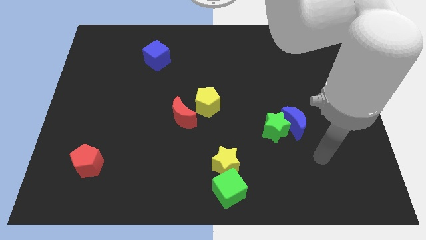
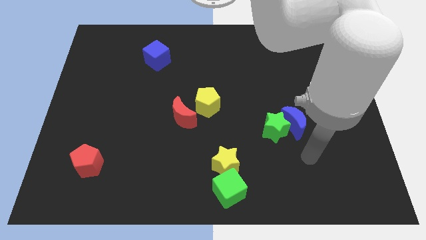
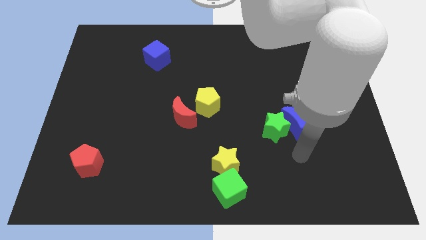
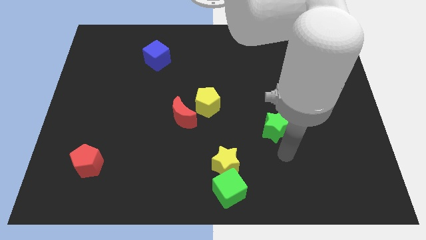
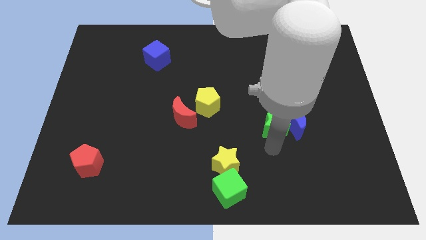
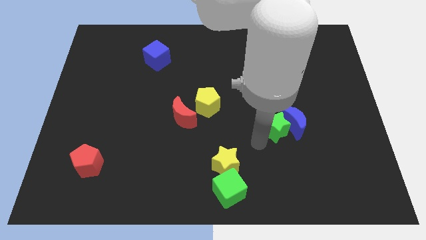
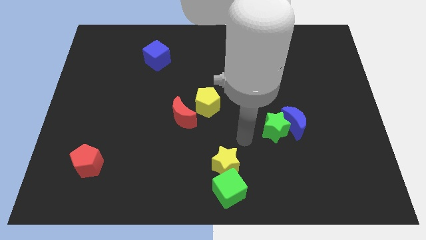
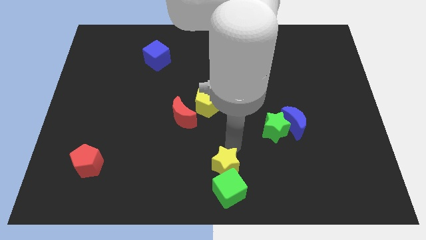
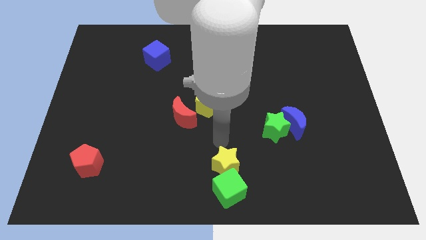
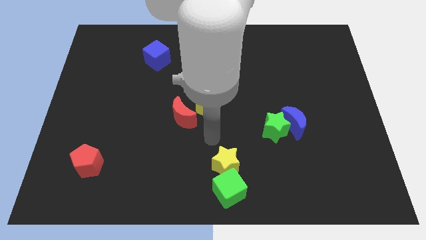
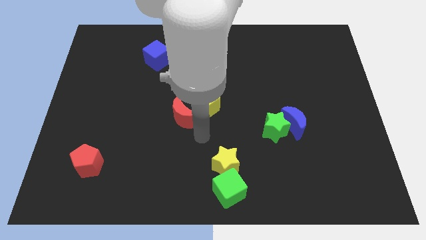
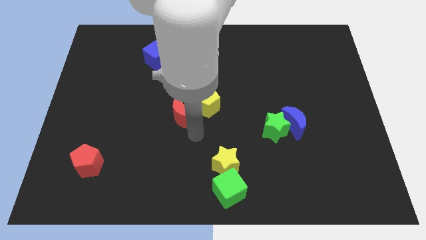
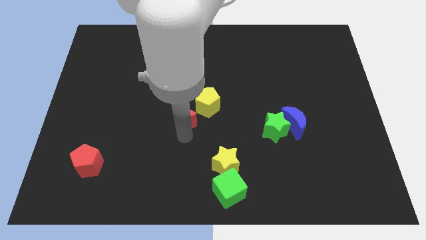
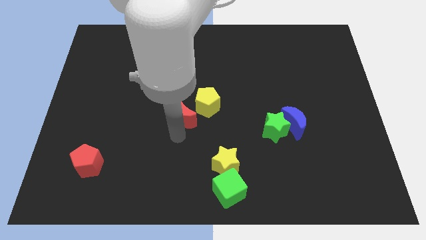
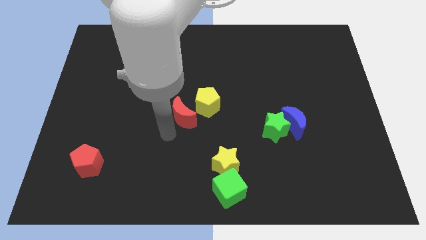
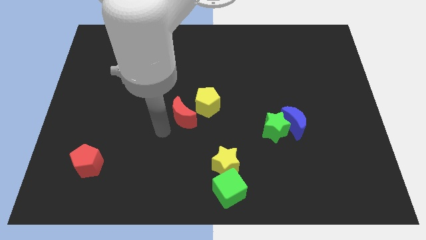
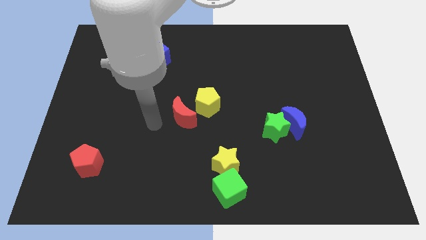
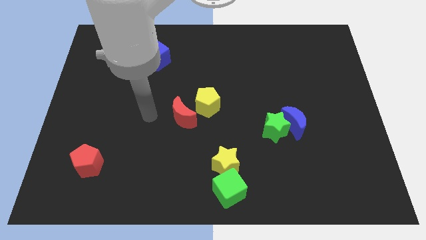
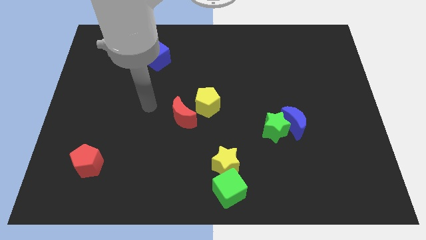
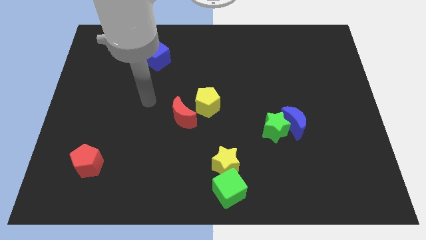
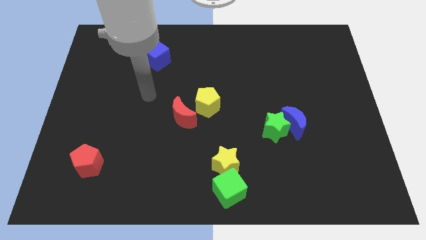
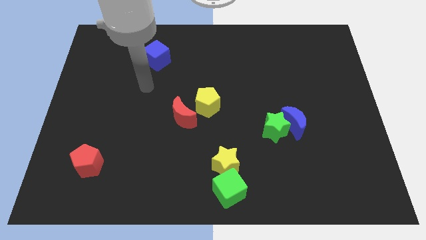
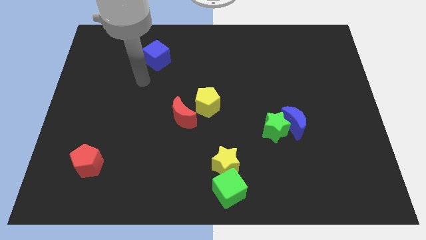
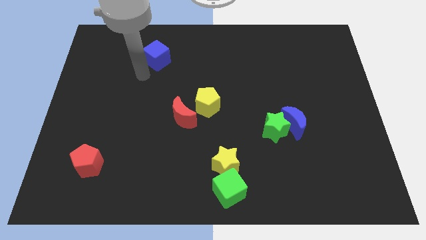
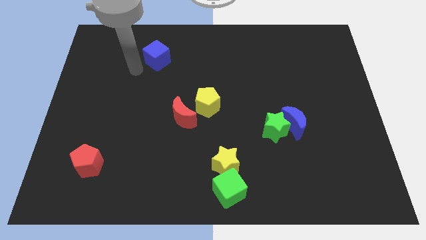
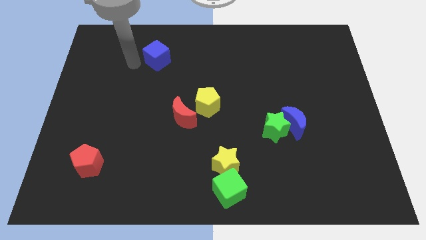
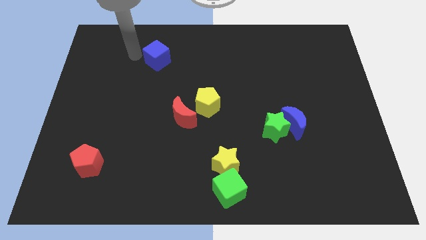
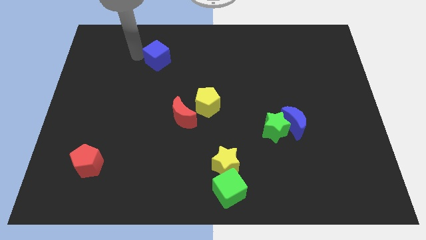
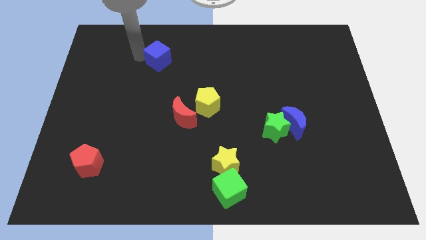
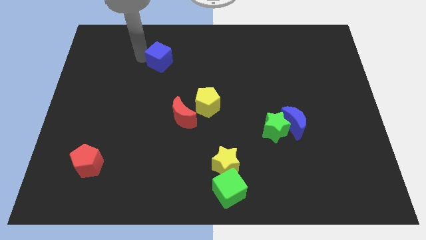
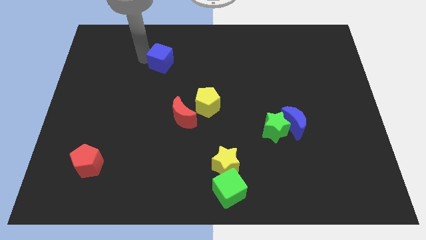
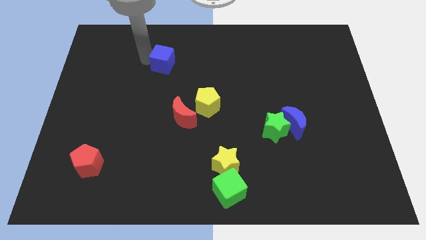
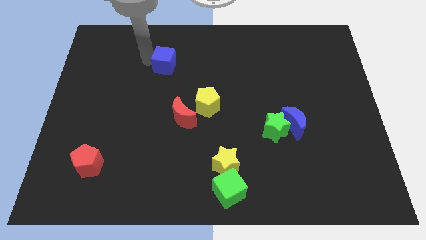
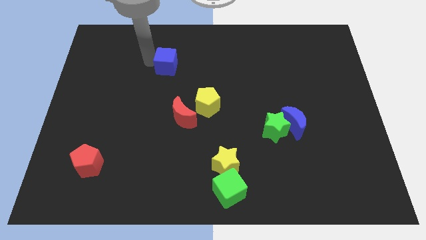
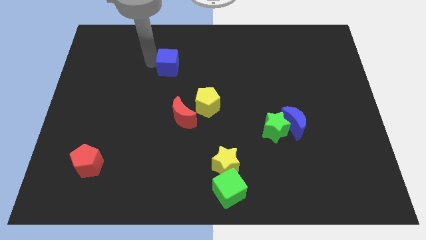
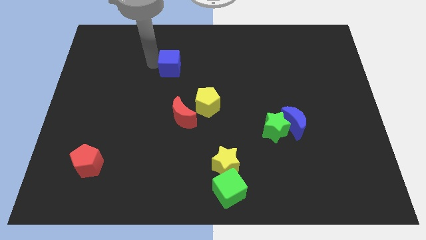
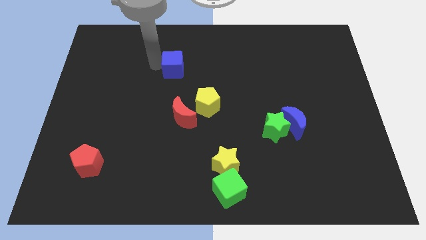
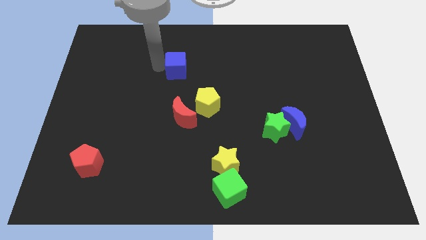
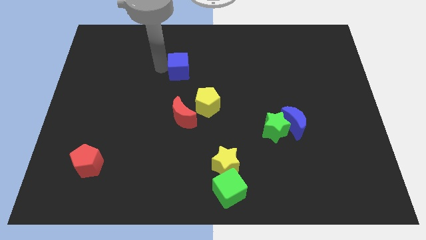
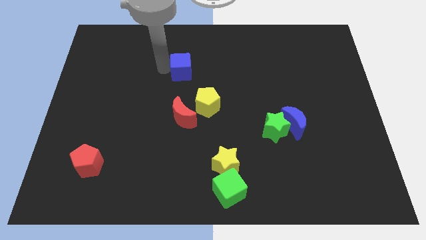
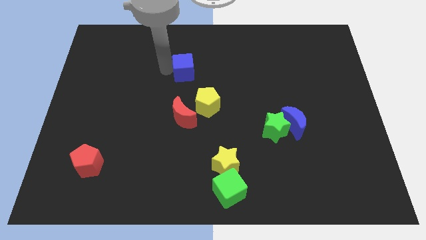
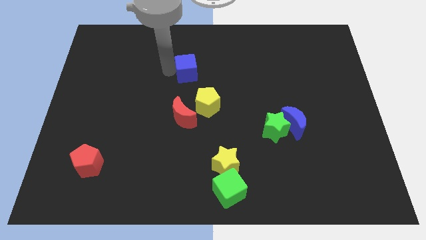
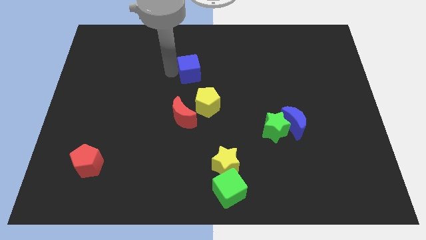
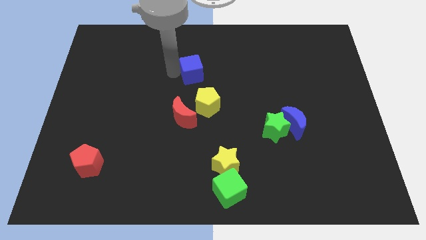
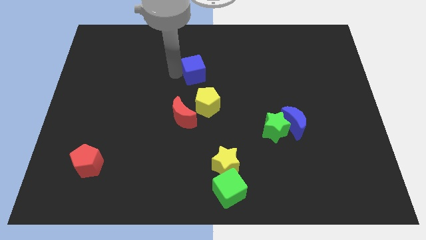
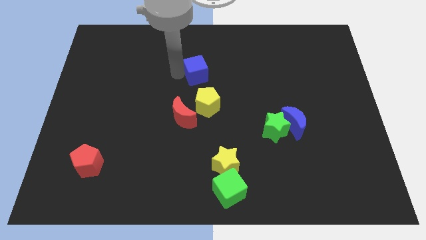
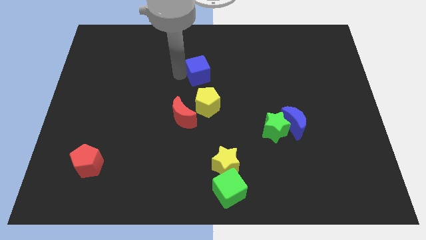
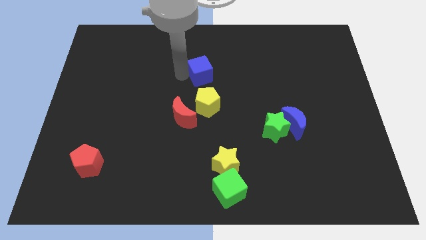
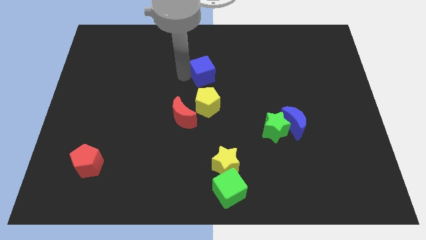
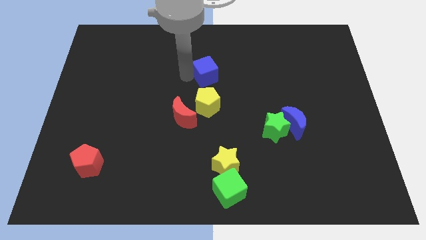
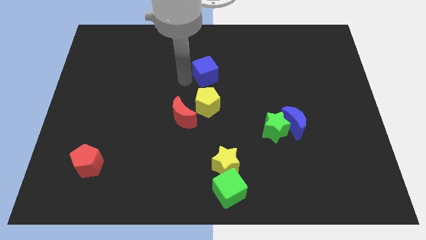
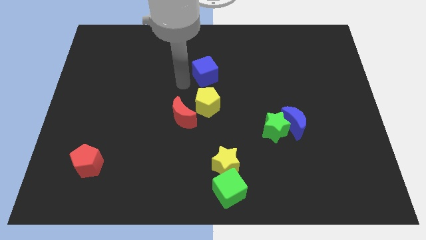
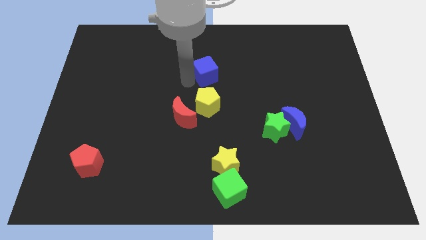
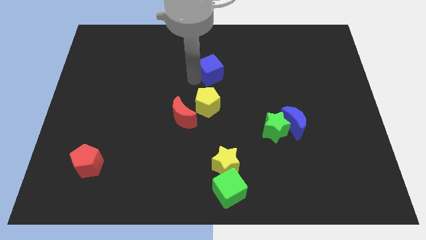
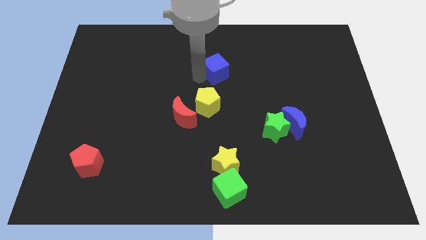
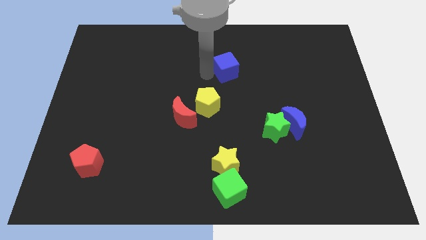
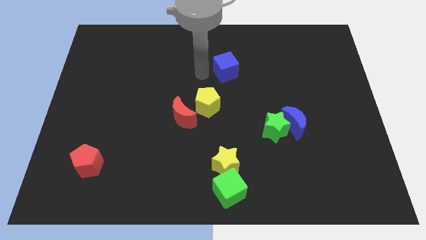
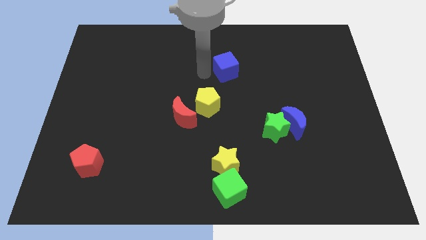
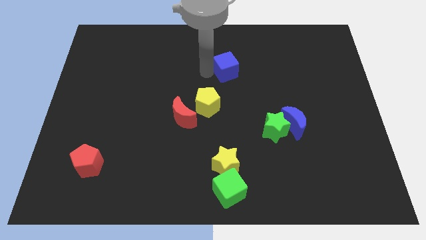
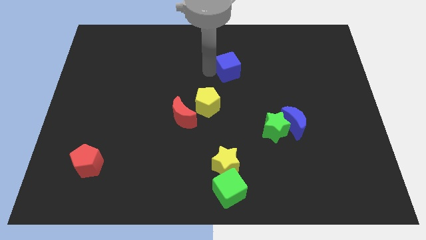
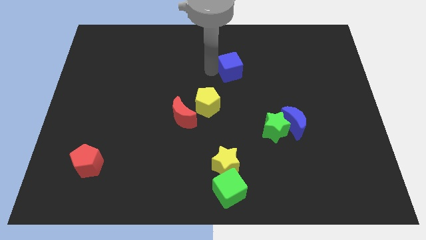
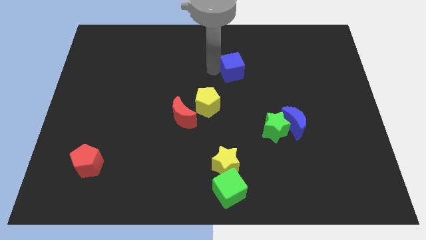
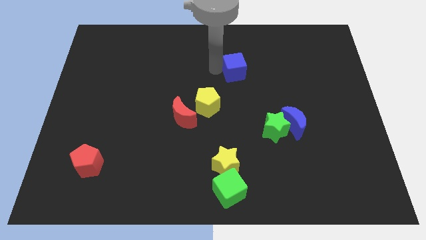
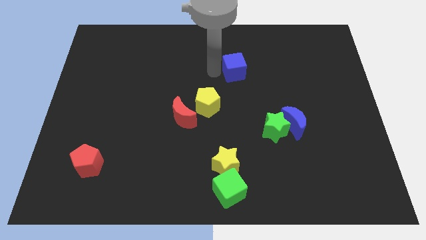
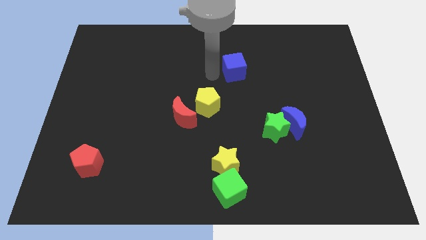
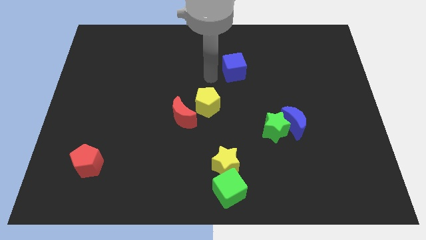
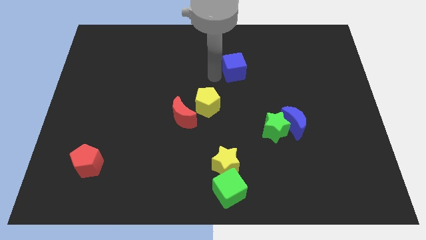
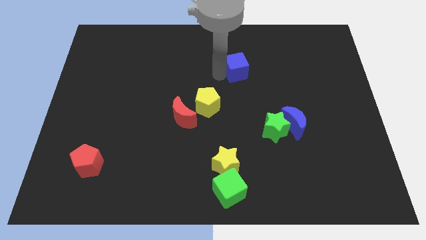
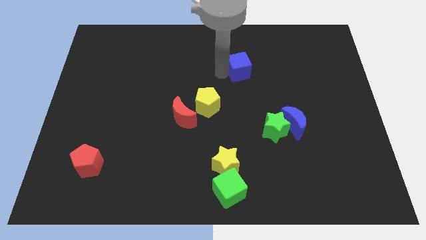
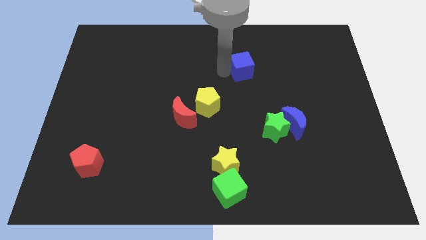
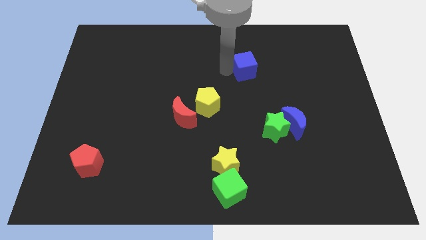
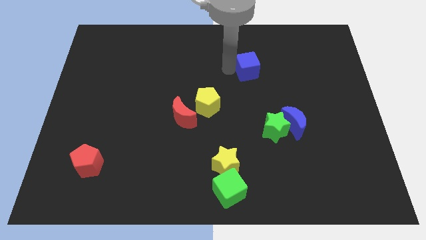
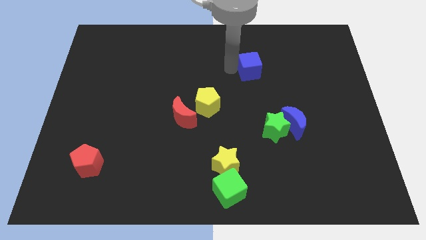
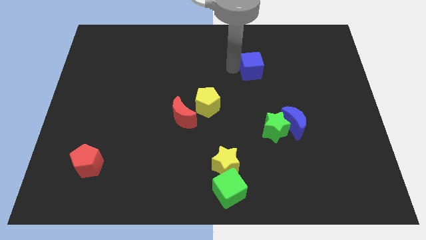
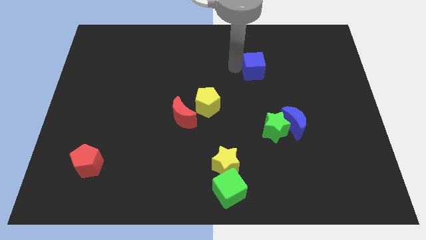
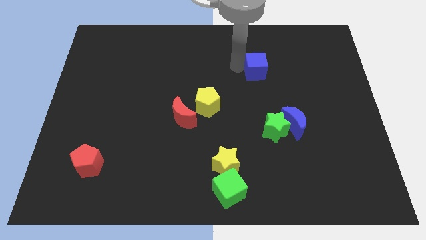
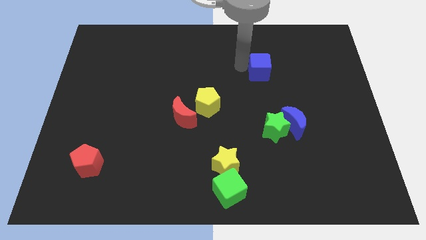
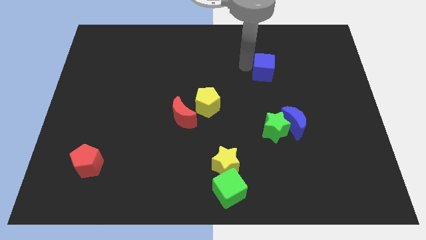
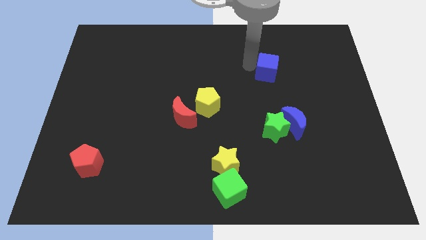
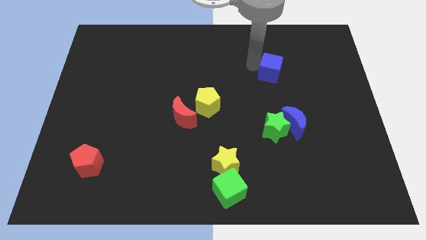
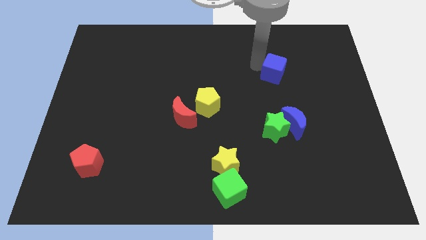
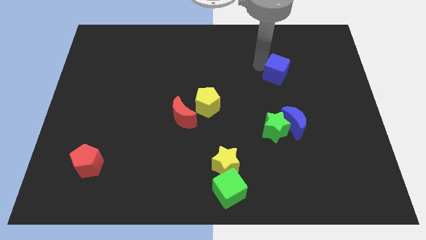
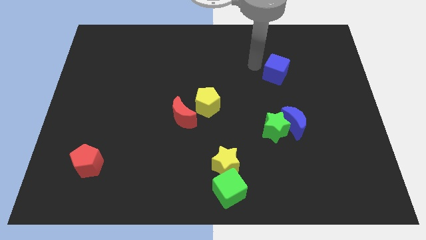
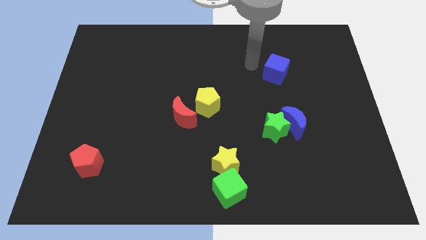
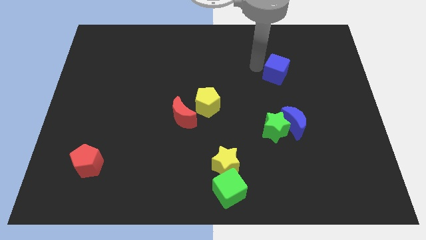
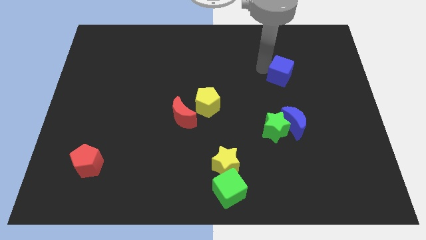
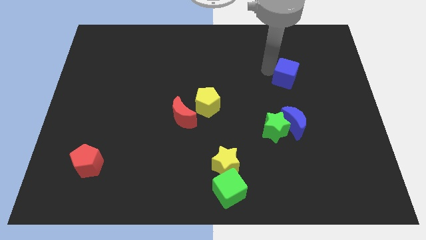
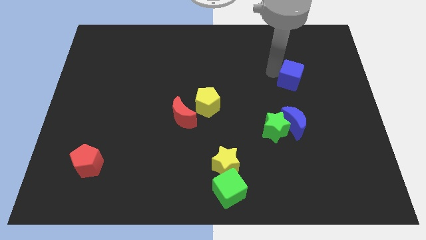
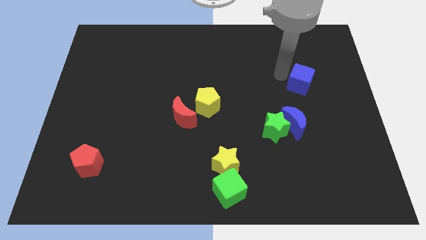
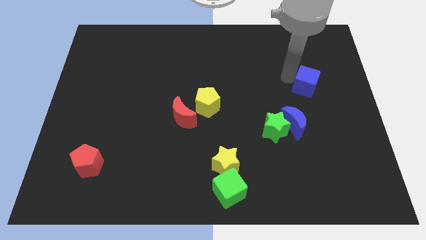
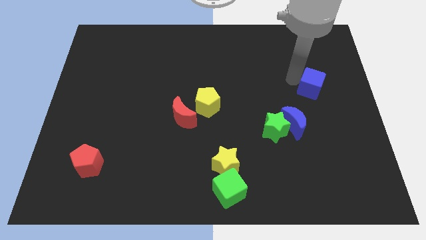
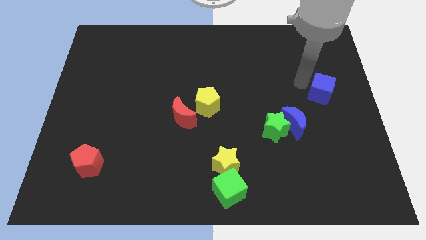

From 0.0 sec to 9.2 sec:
put the blue cube to the right side
